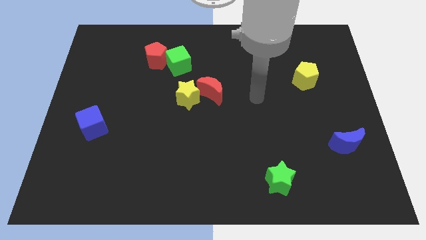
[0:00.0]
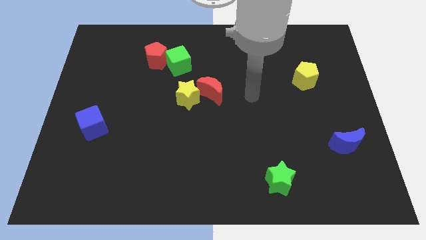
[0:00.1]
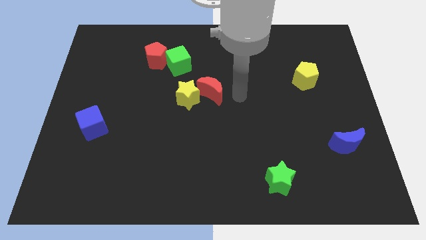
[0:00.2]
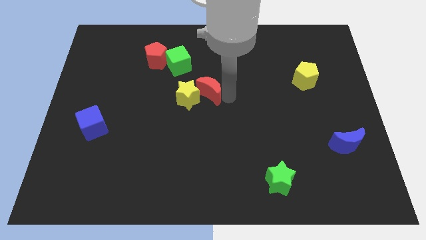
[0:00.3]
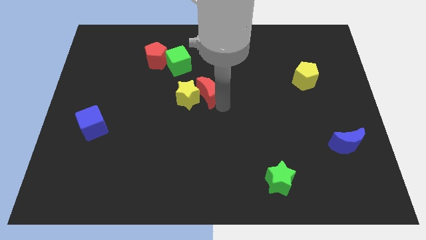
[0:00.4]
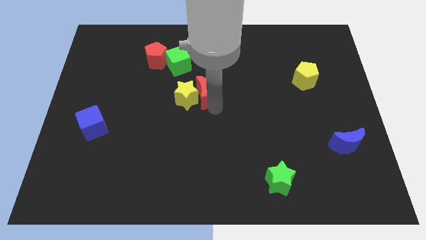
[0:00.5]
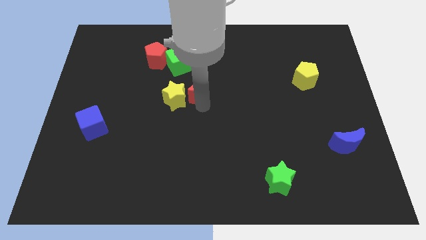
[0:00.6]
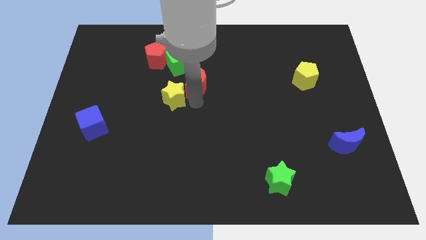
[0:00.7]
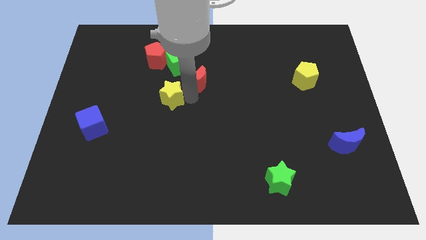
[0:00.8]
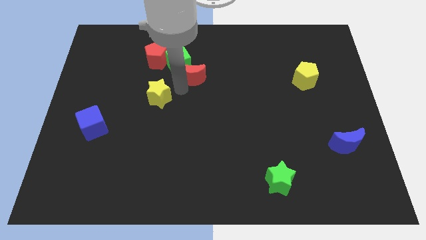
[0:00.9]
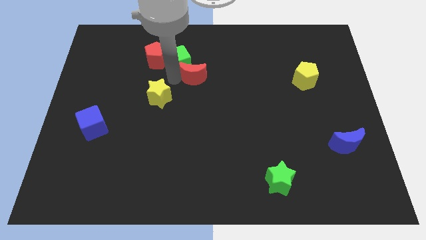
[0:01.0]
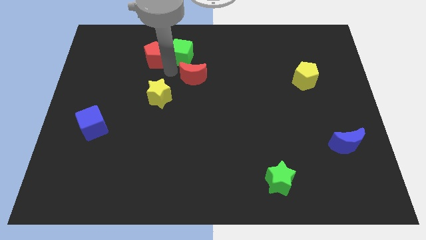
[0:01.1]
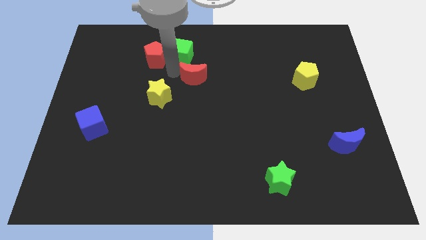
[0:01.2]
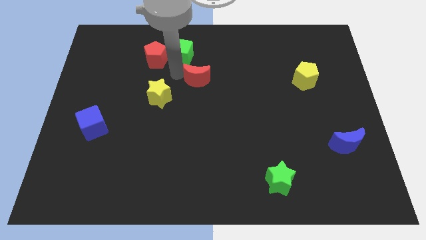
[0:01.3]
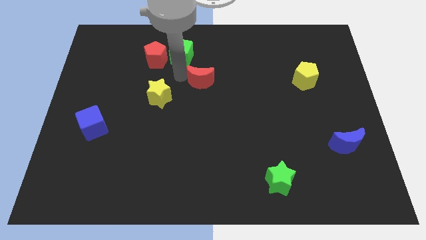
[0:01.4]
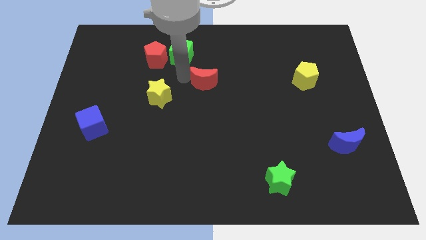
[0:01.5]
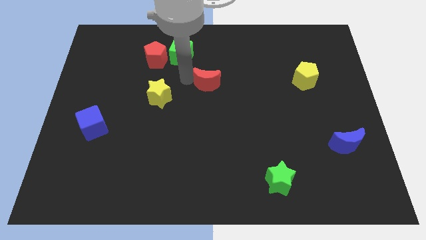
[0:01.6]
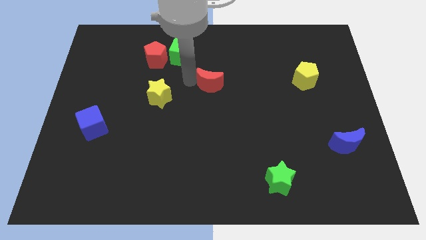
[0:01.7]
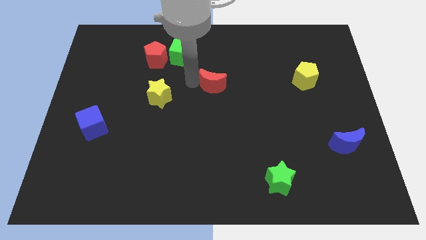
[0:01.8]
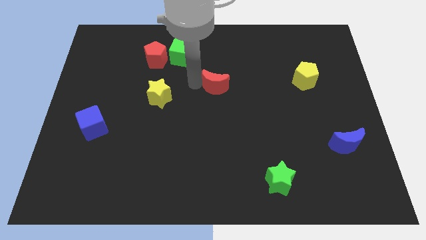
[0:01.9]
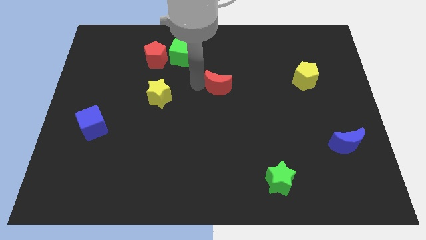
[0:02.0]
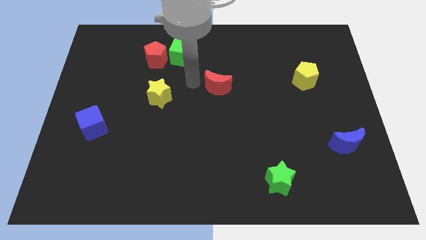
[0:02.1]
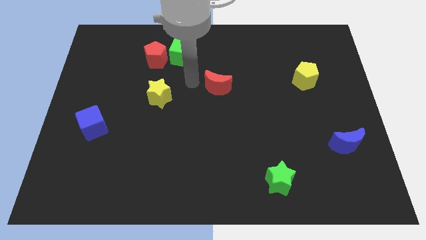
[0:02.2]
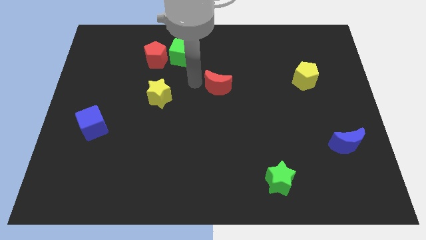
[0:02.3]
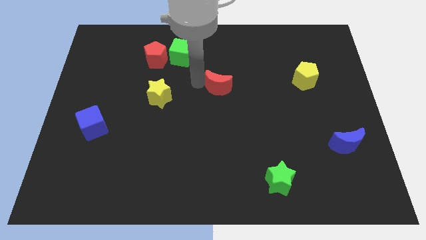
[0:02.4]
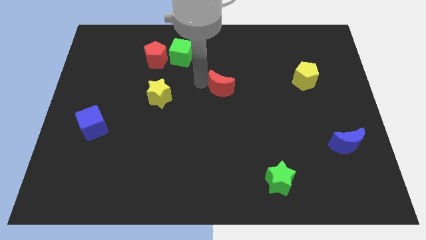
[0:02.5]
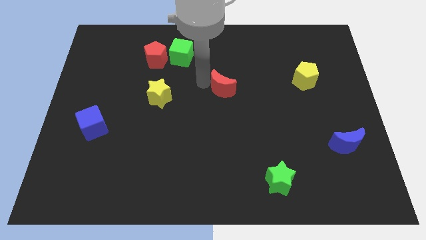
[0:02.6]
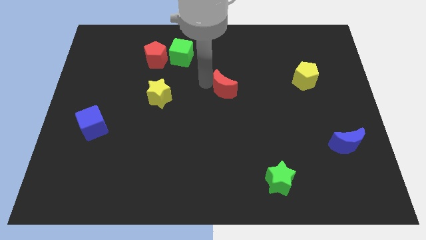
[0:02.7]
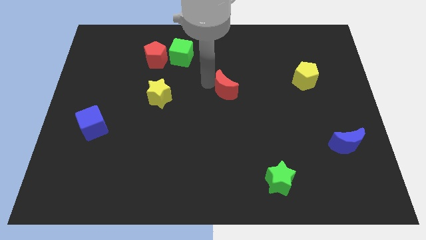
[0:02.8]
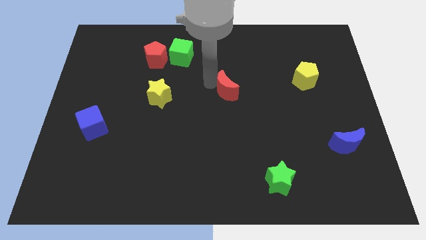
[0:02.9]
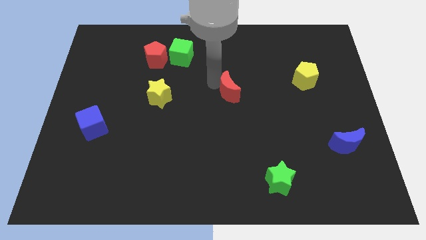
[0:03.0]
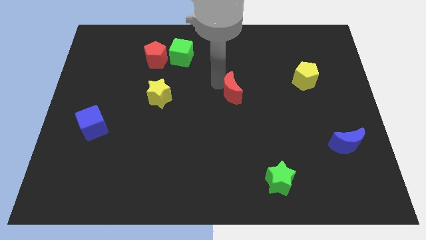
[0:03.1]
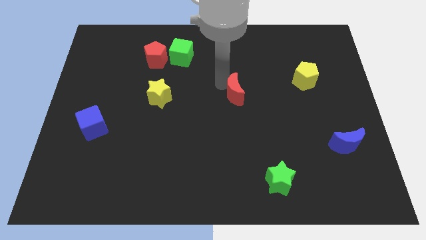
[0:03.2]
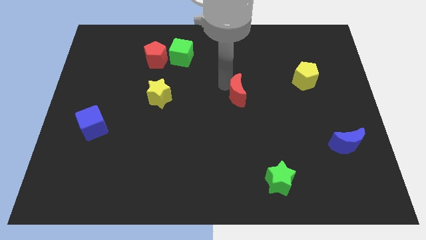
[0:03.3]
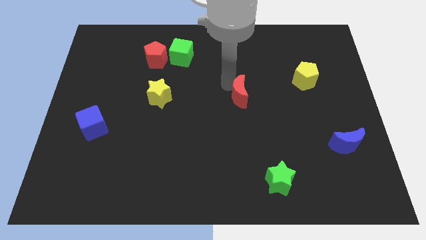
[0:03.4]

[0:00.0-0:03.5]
move the red moon to the right slightly

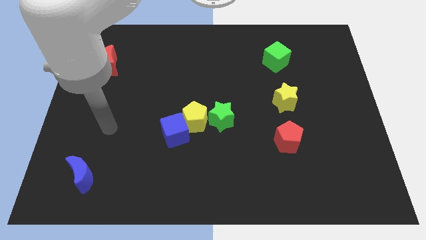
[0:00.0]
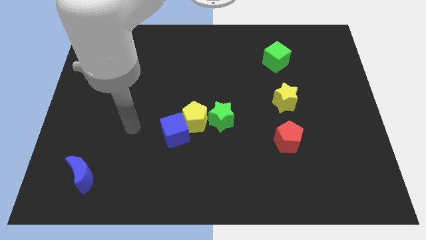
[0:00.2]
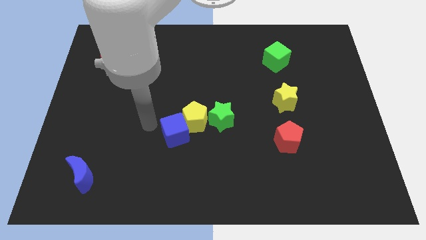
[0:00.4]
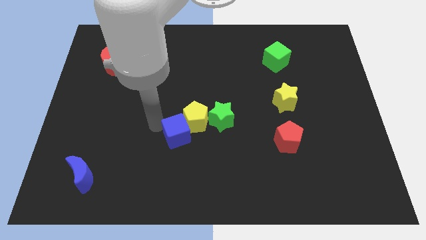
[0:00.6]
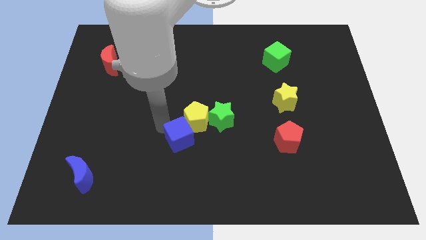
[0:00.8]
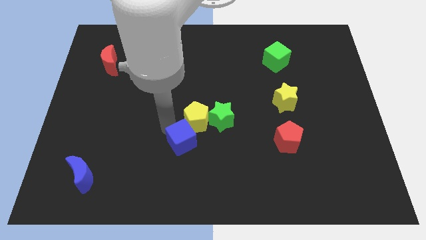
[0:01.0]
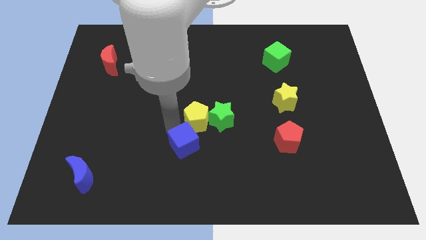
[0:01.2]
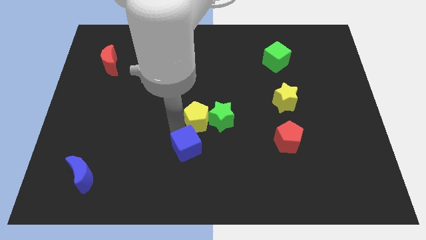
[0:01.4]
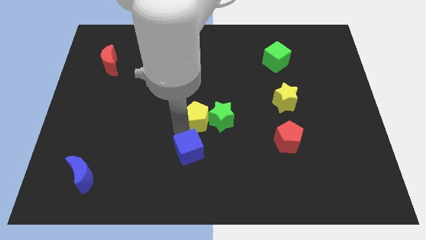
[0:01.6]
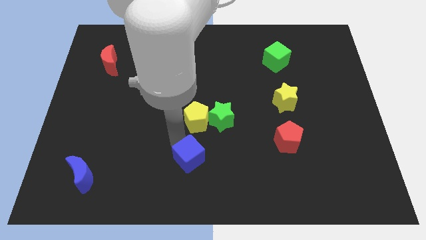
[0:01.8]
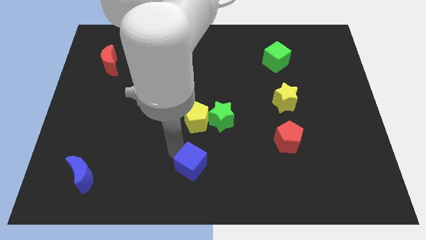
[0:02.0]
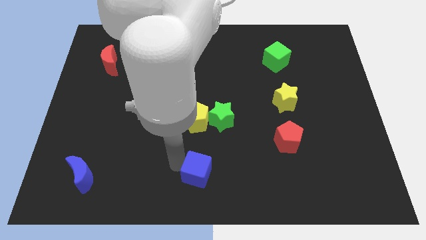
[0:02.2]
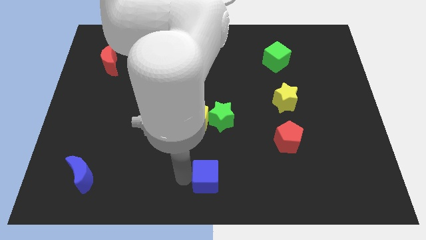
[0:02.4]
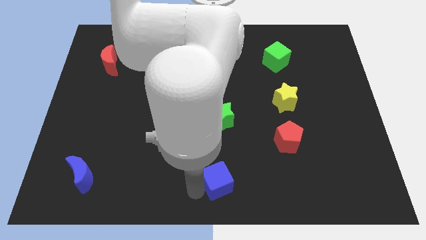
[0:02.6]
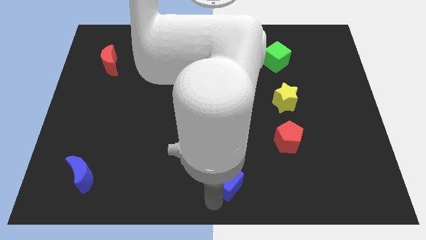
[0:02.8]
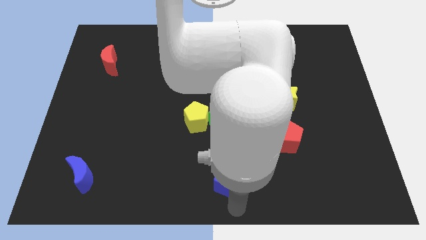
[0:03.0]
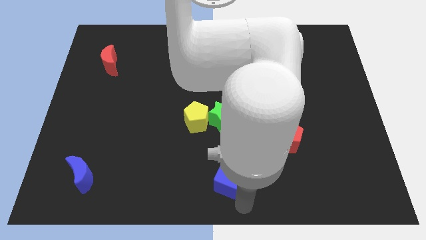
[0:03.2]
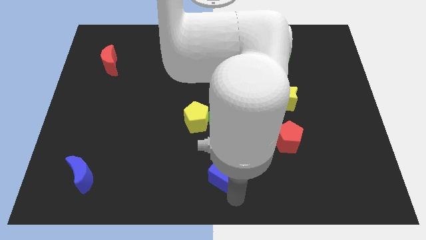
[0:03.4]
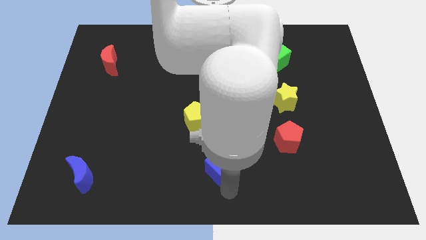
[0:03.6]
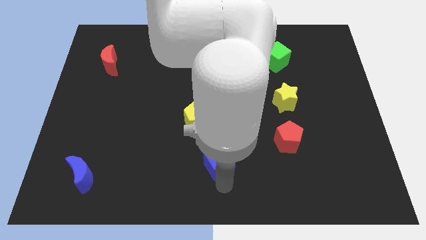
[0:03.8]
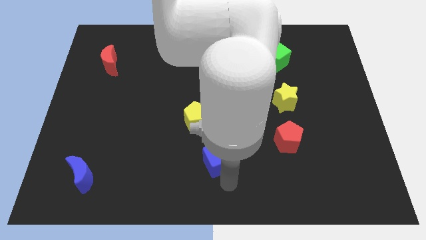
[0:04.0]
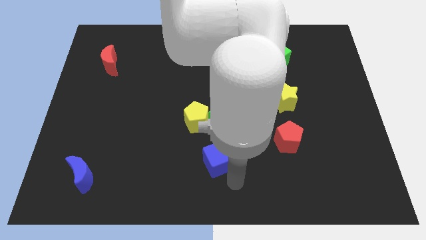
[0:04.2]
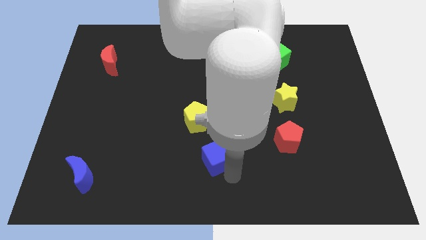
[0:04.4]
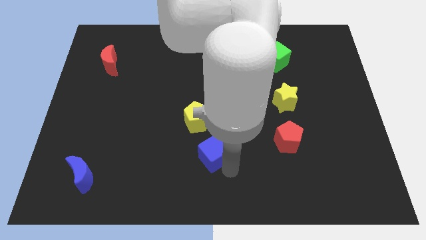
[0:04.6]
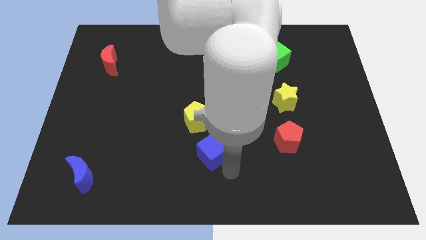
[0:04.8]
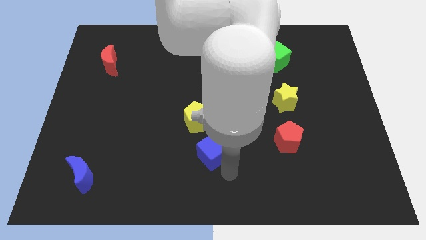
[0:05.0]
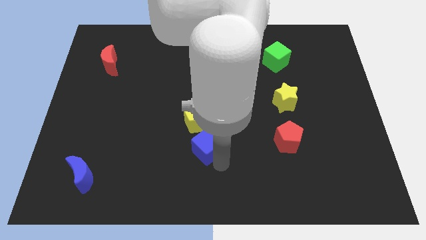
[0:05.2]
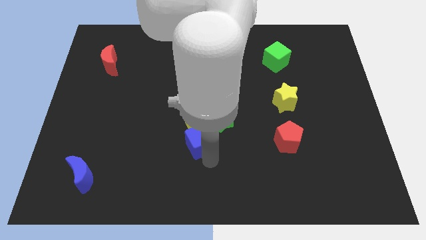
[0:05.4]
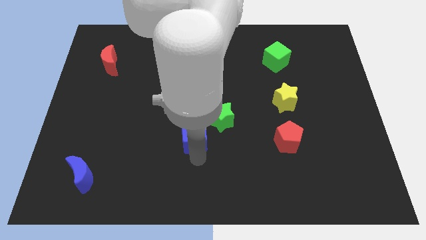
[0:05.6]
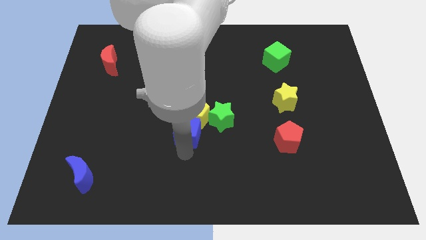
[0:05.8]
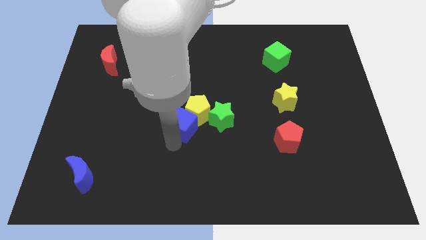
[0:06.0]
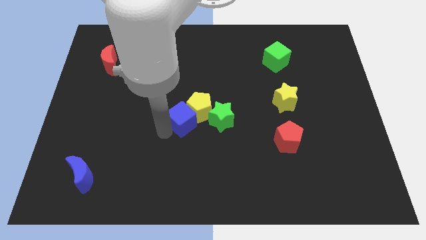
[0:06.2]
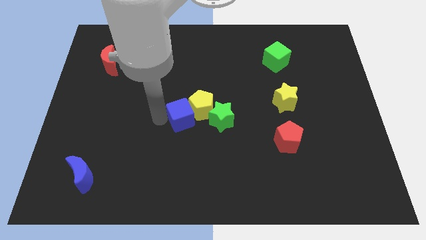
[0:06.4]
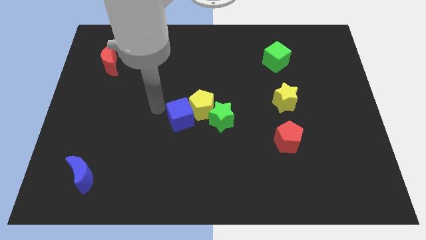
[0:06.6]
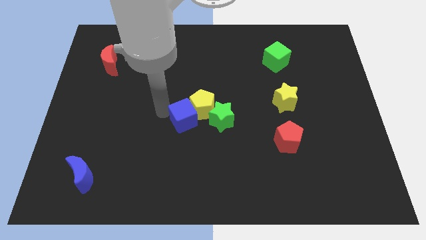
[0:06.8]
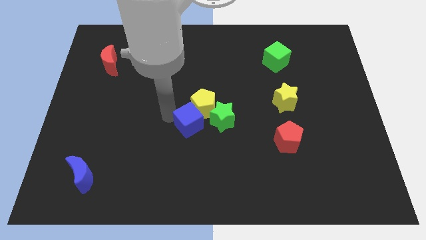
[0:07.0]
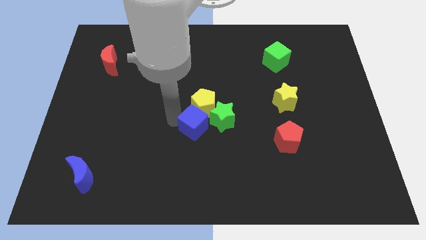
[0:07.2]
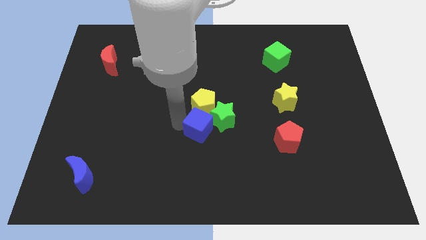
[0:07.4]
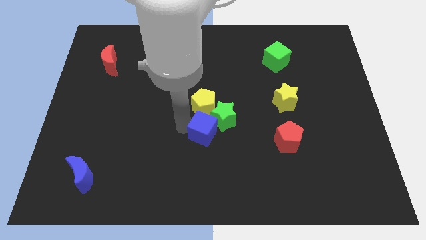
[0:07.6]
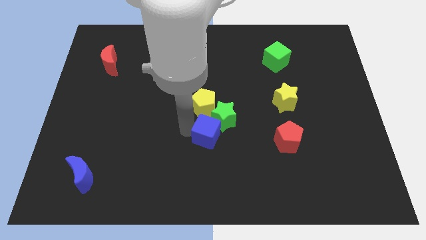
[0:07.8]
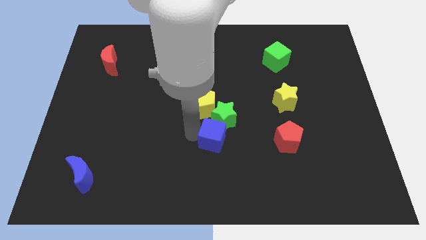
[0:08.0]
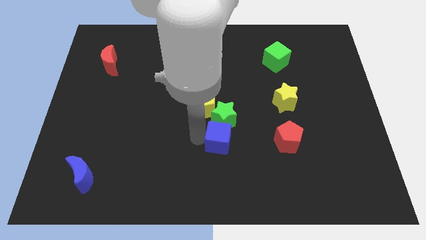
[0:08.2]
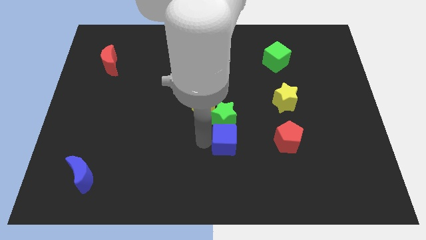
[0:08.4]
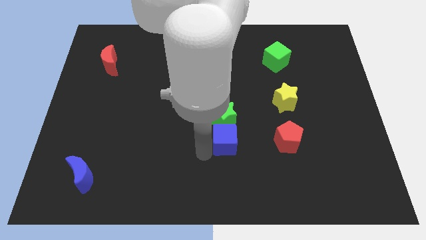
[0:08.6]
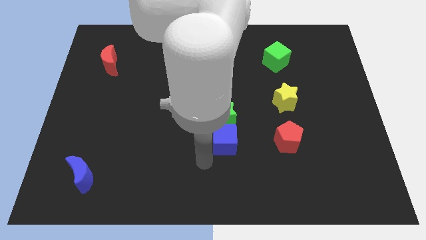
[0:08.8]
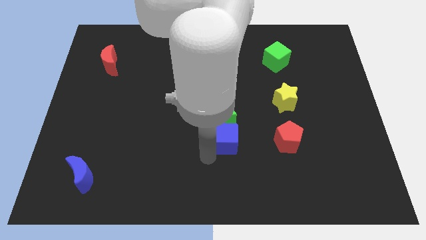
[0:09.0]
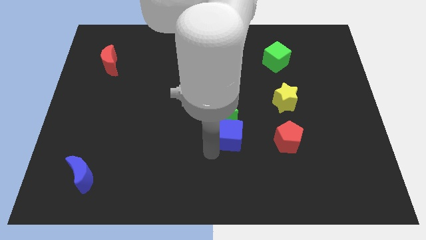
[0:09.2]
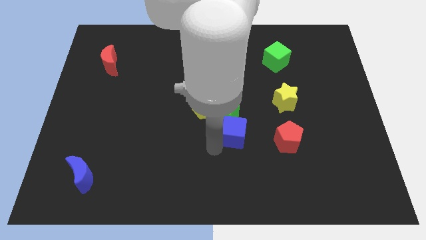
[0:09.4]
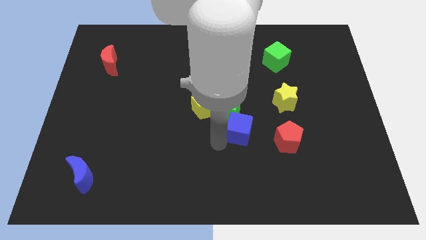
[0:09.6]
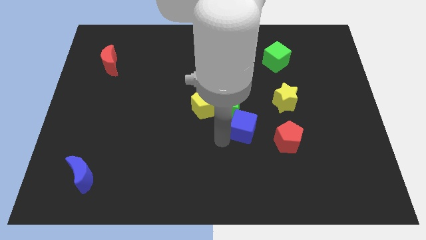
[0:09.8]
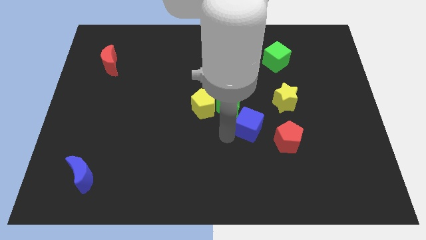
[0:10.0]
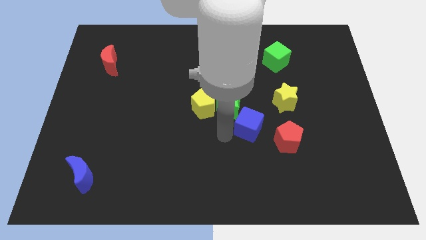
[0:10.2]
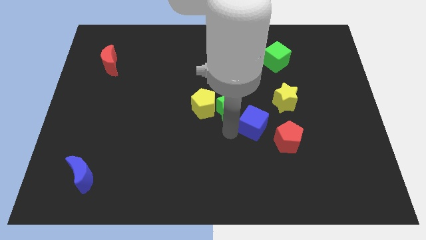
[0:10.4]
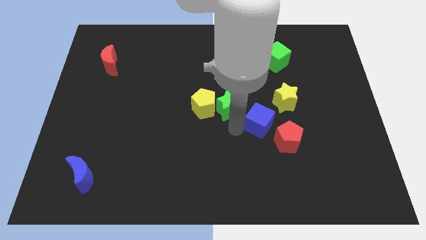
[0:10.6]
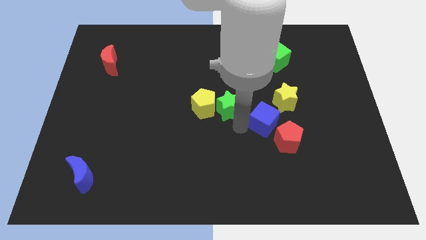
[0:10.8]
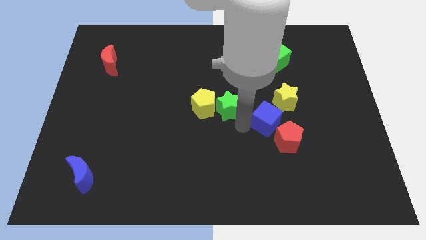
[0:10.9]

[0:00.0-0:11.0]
slide the blue cube right
